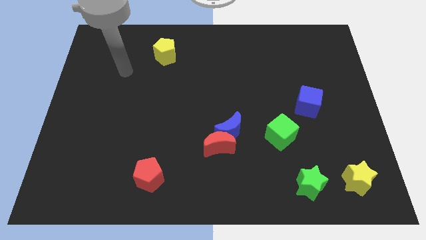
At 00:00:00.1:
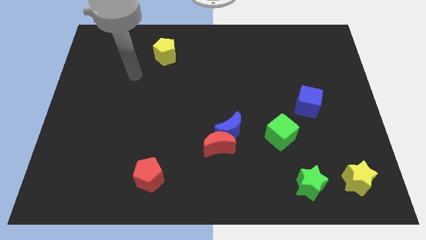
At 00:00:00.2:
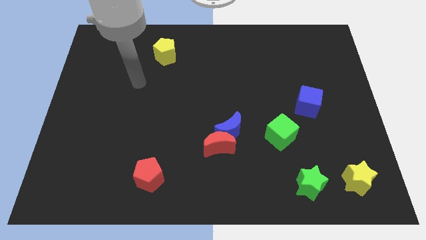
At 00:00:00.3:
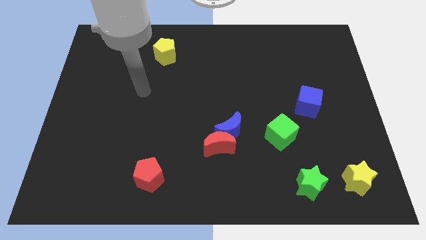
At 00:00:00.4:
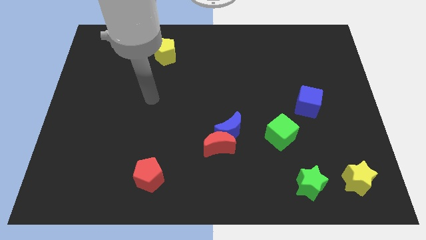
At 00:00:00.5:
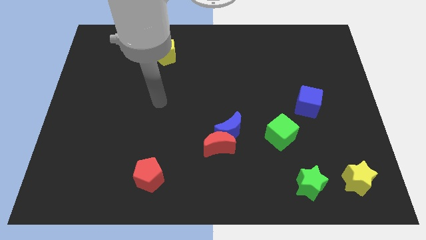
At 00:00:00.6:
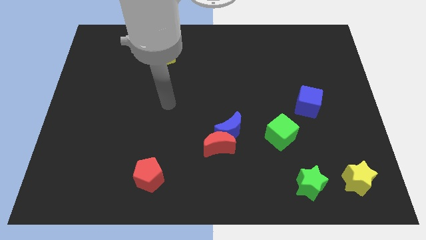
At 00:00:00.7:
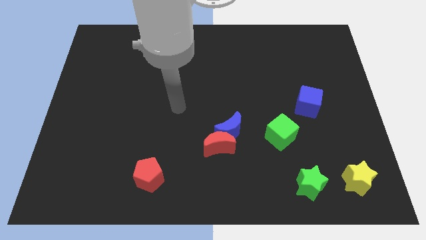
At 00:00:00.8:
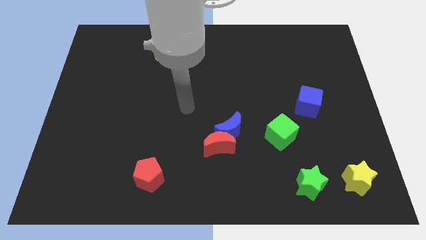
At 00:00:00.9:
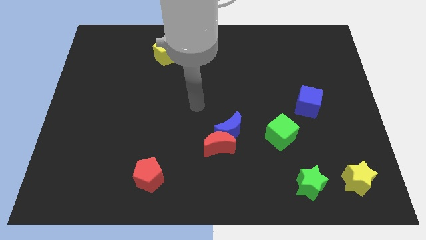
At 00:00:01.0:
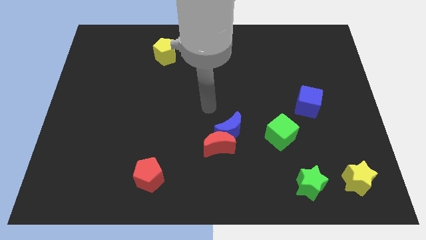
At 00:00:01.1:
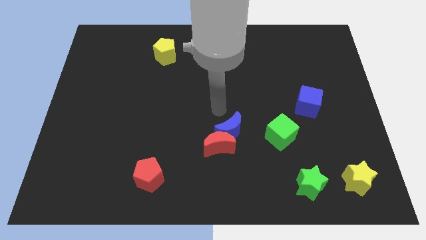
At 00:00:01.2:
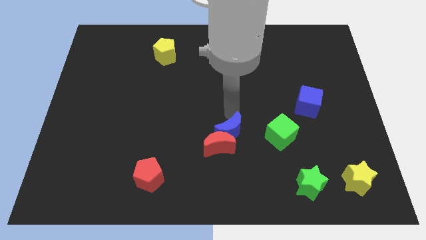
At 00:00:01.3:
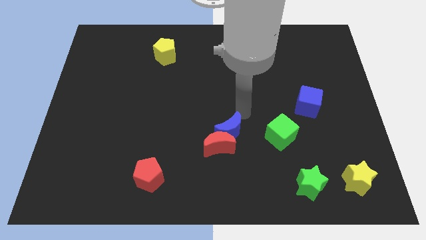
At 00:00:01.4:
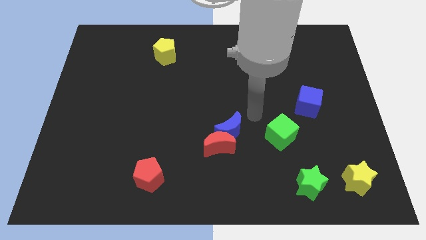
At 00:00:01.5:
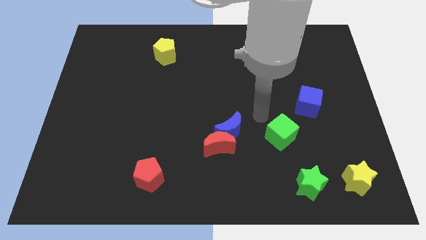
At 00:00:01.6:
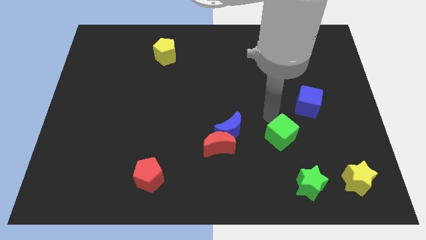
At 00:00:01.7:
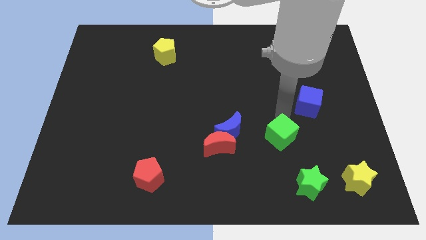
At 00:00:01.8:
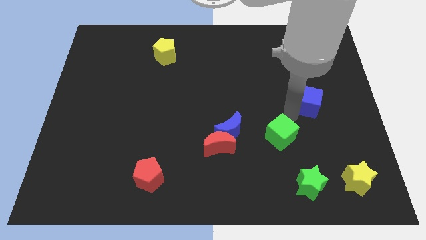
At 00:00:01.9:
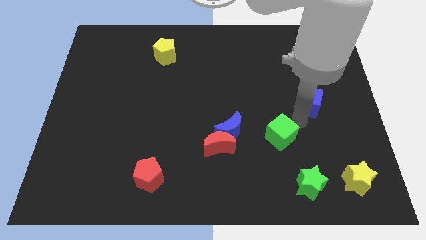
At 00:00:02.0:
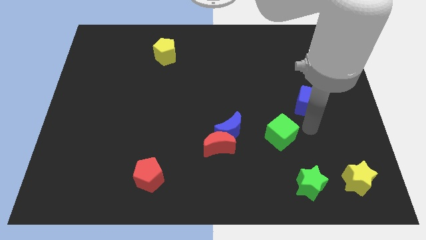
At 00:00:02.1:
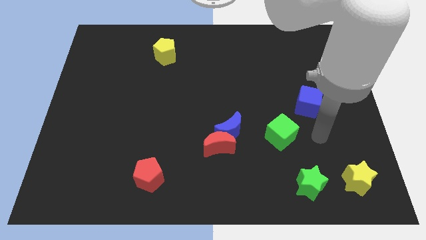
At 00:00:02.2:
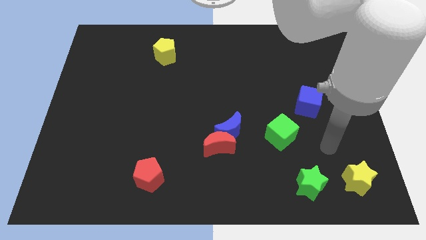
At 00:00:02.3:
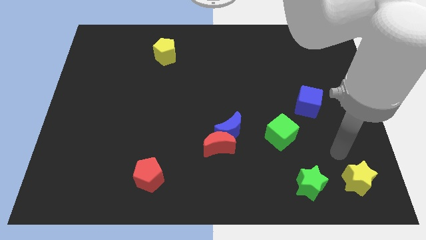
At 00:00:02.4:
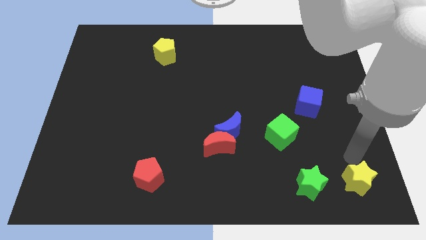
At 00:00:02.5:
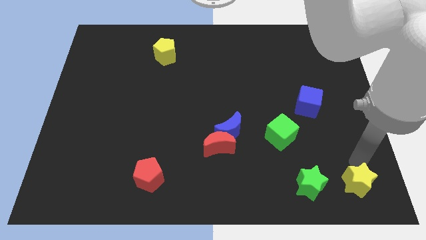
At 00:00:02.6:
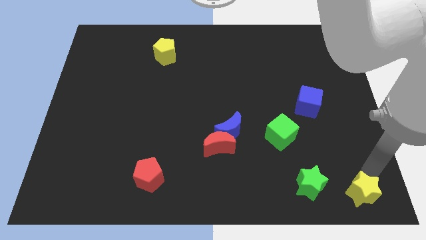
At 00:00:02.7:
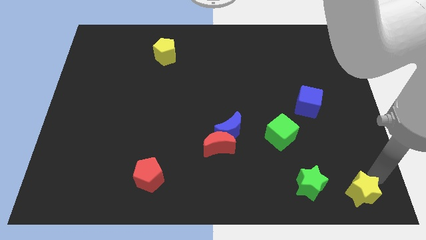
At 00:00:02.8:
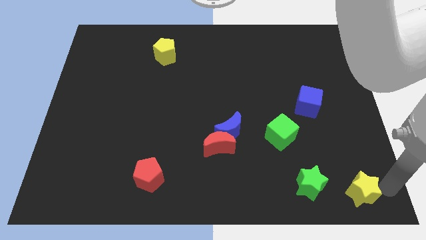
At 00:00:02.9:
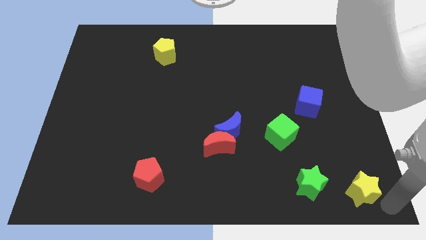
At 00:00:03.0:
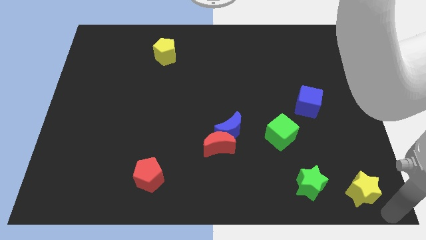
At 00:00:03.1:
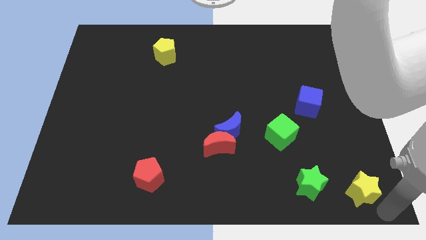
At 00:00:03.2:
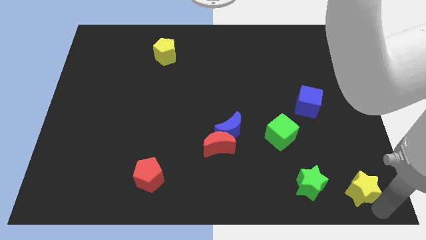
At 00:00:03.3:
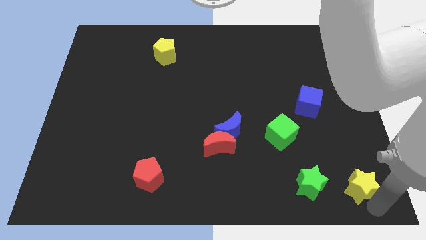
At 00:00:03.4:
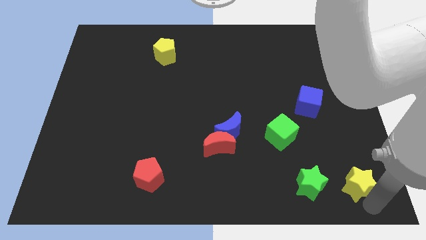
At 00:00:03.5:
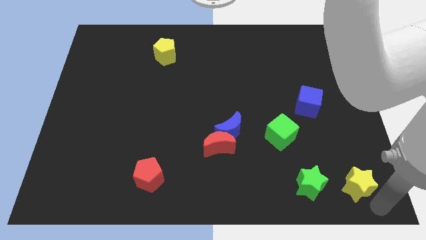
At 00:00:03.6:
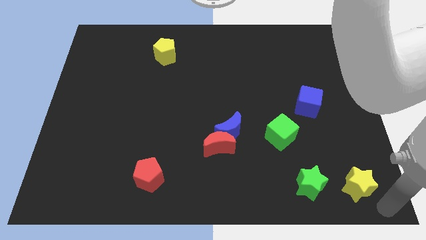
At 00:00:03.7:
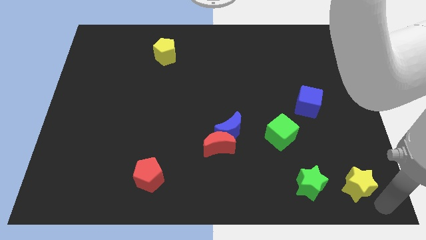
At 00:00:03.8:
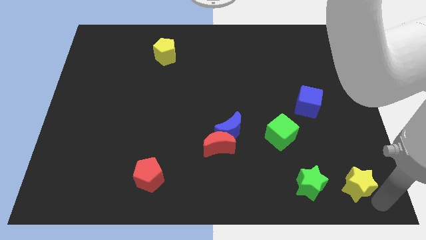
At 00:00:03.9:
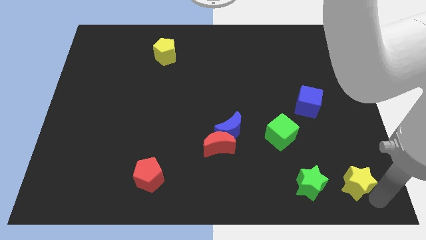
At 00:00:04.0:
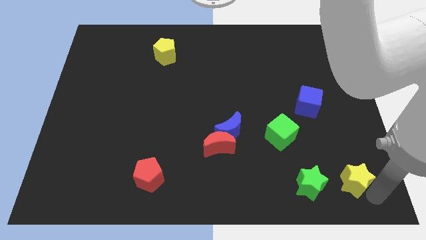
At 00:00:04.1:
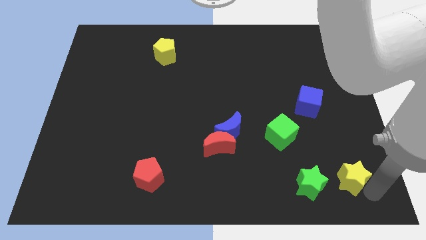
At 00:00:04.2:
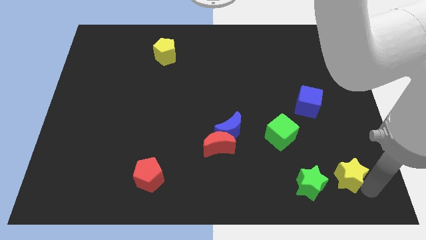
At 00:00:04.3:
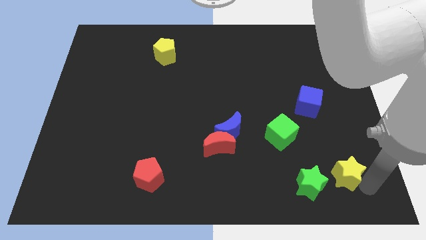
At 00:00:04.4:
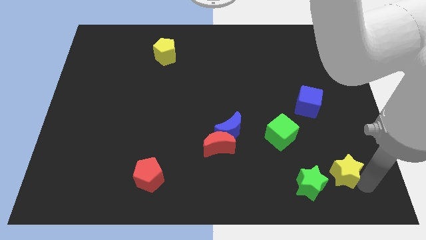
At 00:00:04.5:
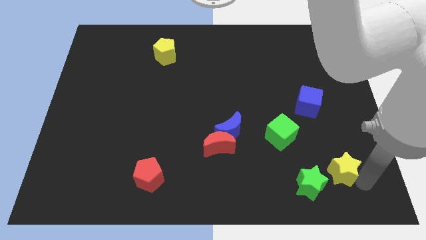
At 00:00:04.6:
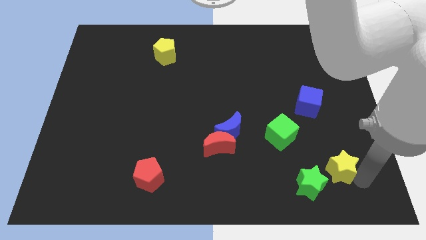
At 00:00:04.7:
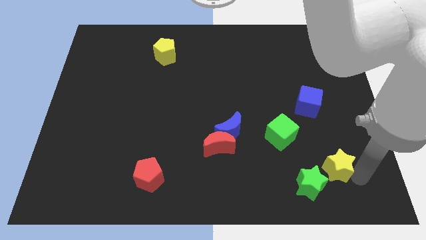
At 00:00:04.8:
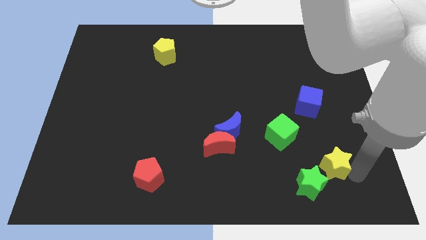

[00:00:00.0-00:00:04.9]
slide the yellow star diagonally down and to the right of the green cube

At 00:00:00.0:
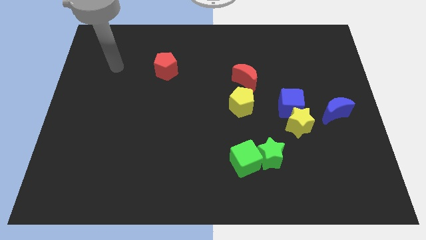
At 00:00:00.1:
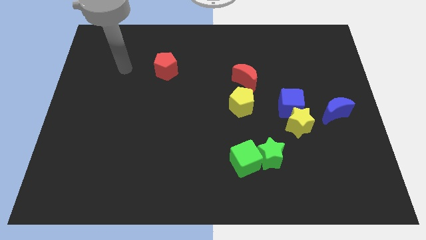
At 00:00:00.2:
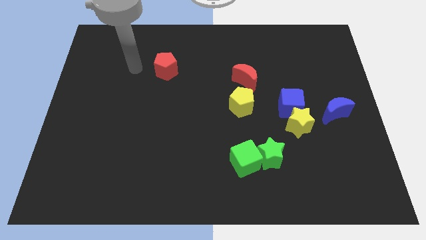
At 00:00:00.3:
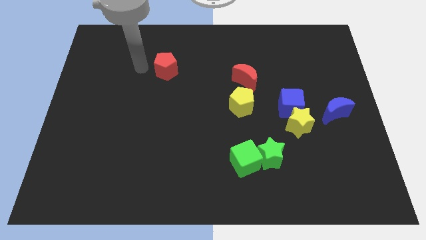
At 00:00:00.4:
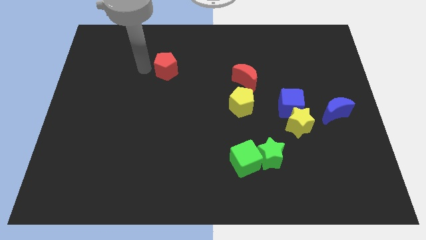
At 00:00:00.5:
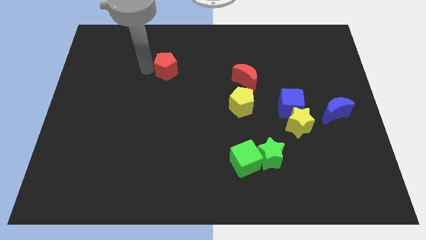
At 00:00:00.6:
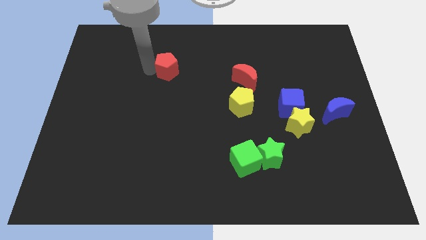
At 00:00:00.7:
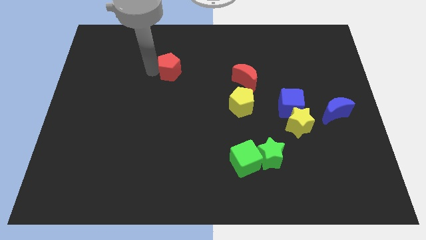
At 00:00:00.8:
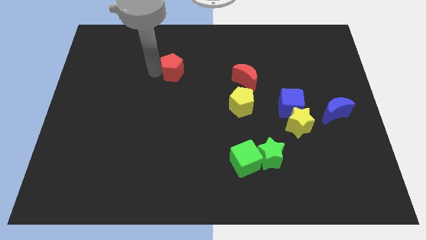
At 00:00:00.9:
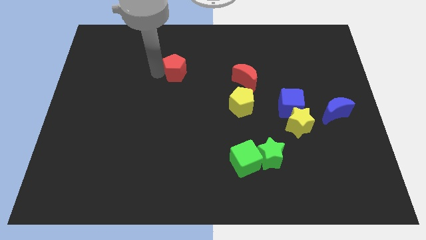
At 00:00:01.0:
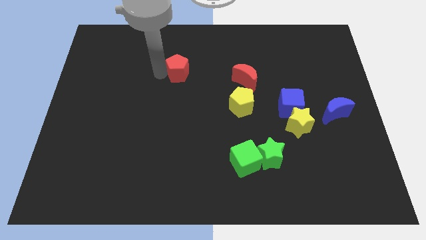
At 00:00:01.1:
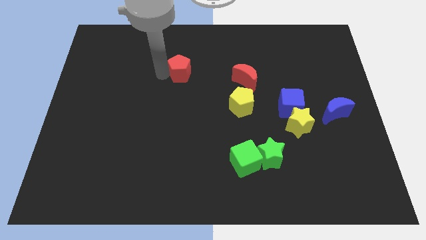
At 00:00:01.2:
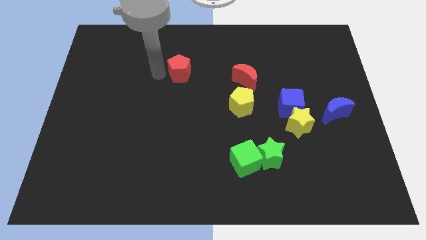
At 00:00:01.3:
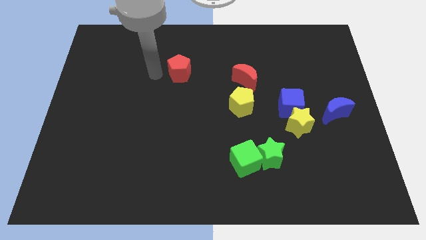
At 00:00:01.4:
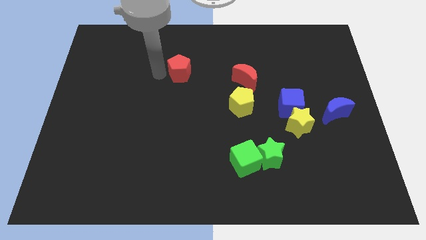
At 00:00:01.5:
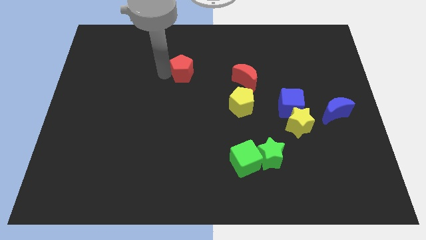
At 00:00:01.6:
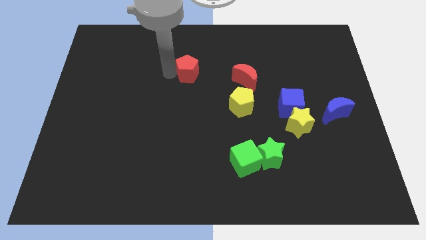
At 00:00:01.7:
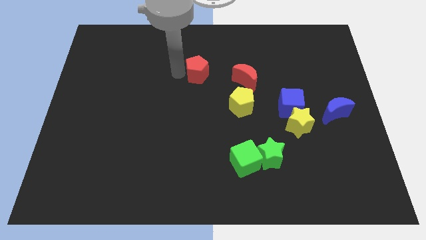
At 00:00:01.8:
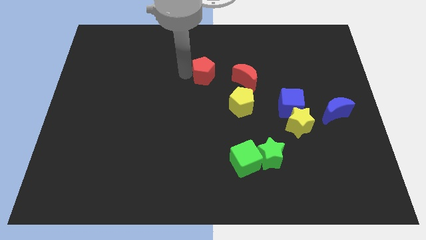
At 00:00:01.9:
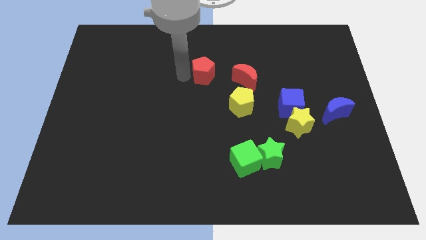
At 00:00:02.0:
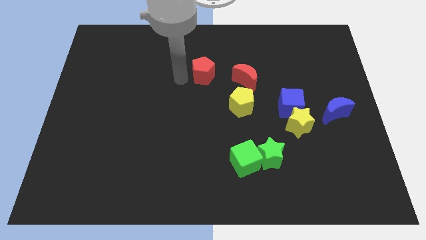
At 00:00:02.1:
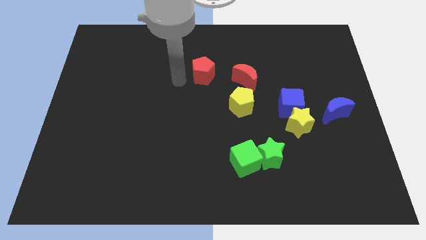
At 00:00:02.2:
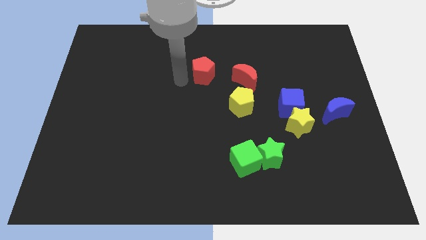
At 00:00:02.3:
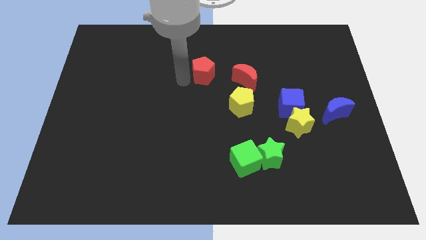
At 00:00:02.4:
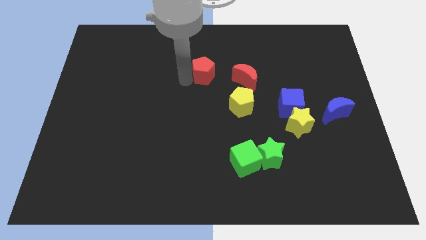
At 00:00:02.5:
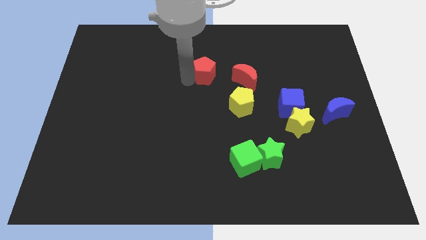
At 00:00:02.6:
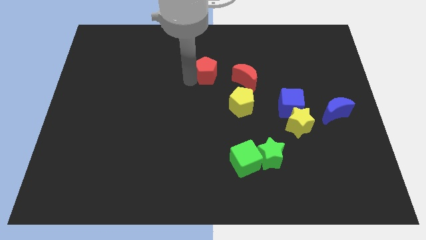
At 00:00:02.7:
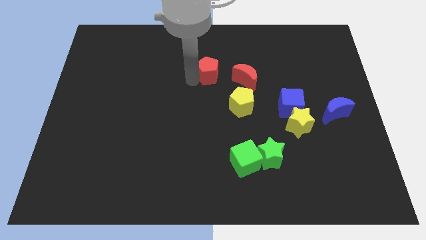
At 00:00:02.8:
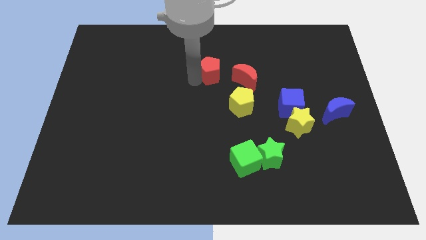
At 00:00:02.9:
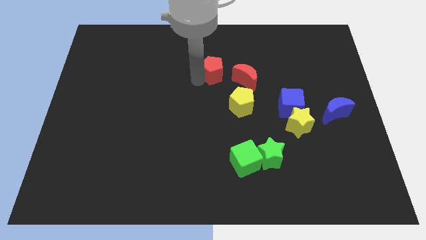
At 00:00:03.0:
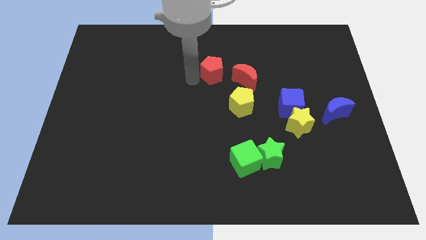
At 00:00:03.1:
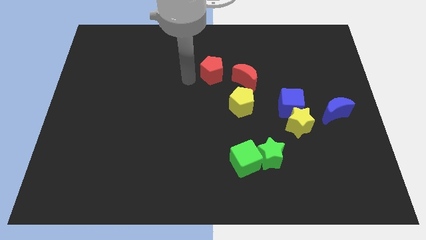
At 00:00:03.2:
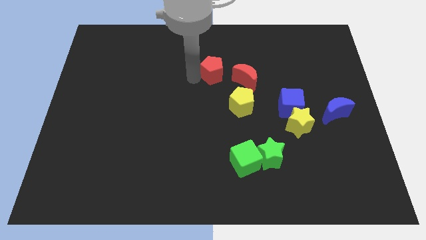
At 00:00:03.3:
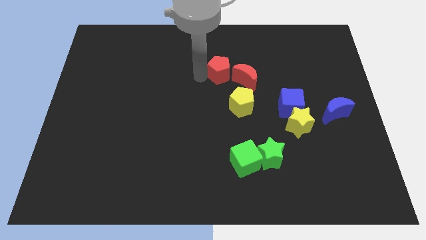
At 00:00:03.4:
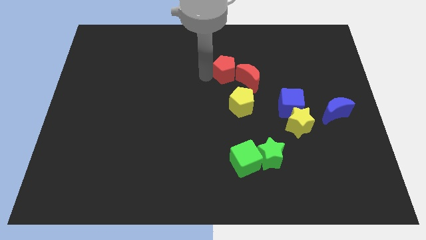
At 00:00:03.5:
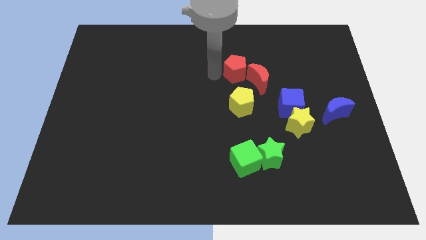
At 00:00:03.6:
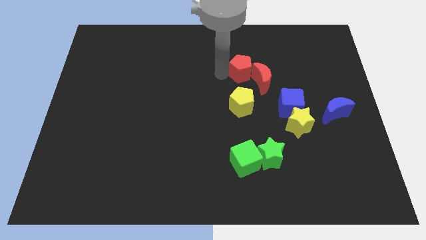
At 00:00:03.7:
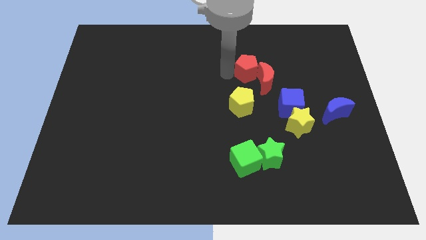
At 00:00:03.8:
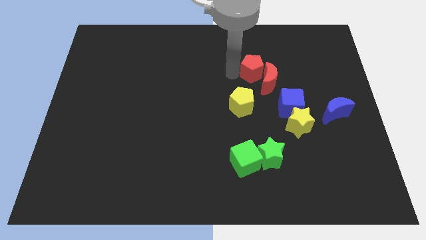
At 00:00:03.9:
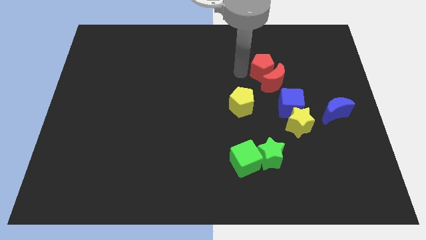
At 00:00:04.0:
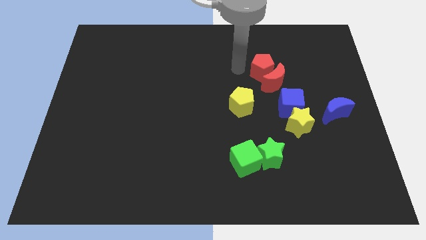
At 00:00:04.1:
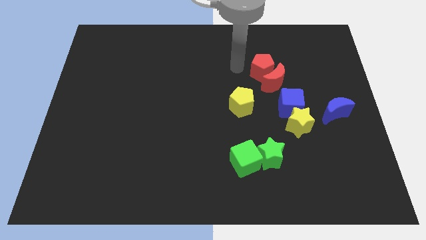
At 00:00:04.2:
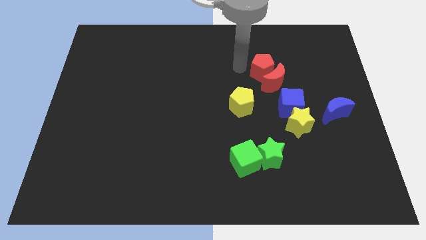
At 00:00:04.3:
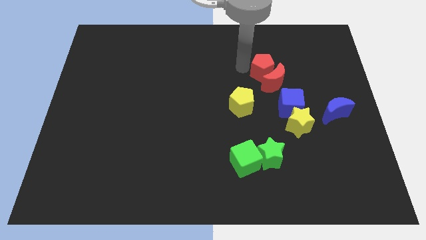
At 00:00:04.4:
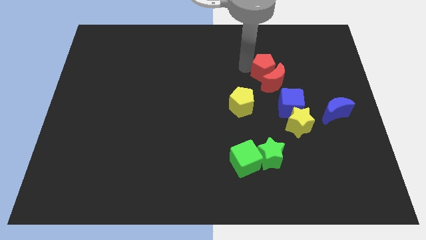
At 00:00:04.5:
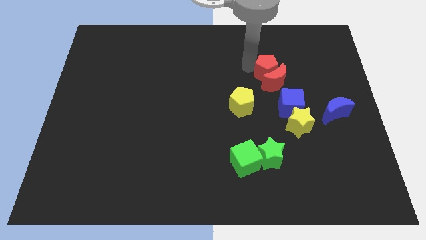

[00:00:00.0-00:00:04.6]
push the red pentagon to the top of the blue cube
